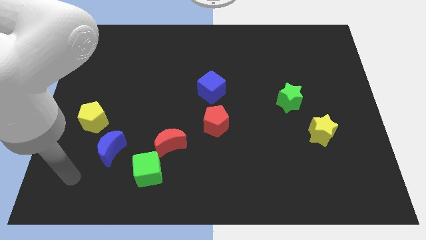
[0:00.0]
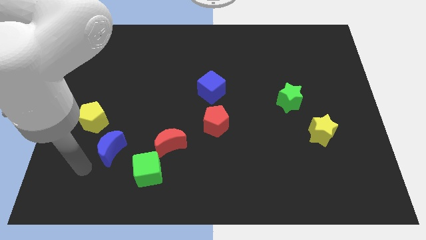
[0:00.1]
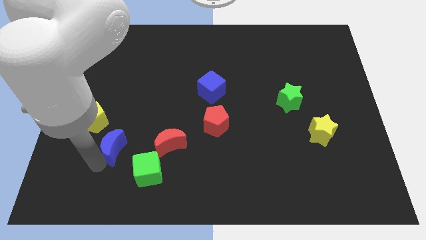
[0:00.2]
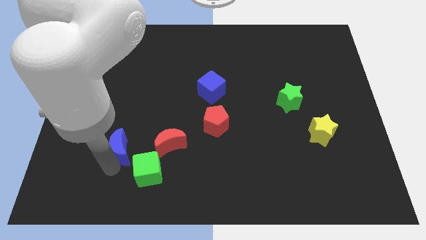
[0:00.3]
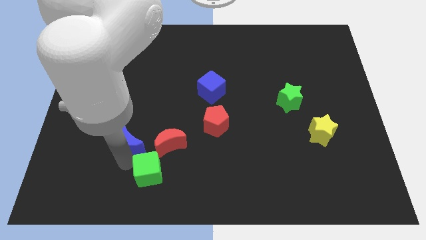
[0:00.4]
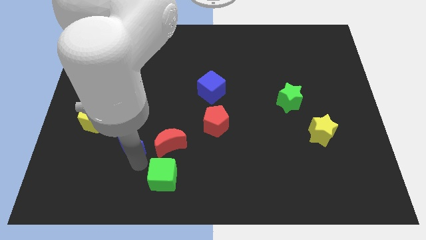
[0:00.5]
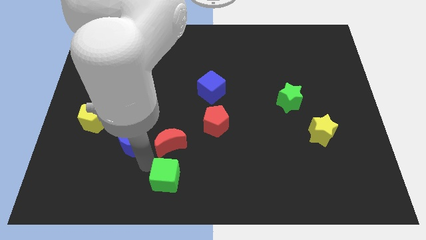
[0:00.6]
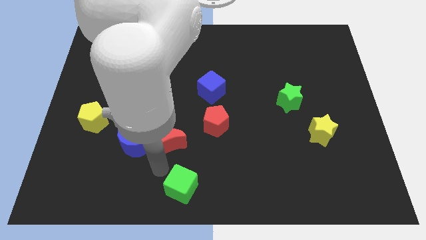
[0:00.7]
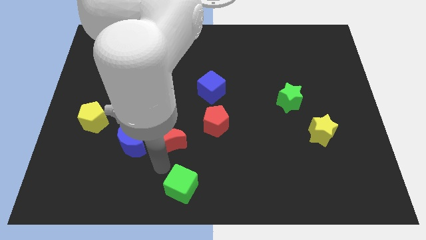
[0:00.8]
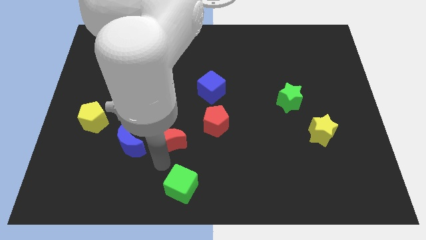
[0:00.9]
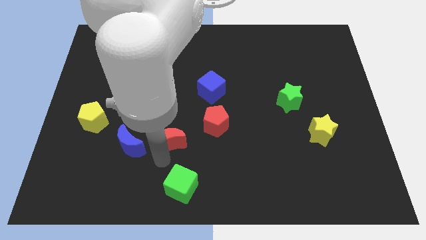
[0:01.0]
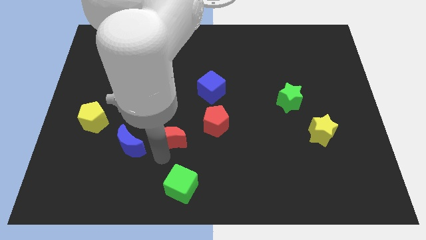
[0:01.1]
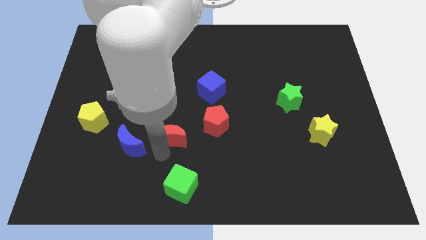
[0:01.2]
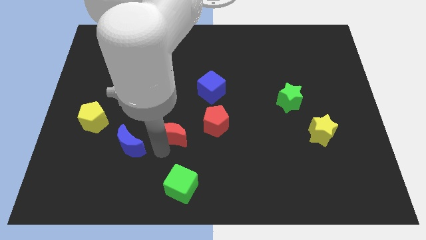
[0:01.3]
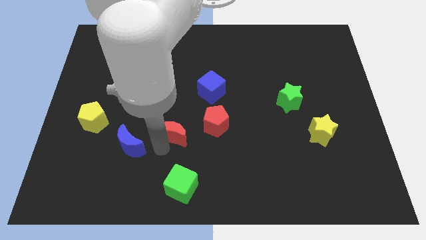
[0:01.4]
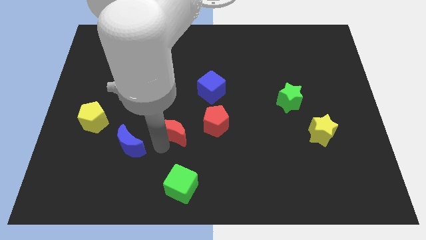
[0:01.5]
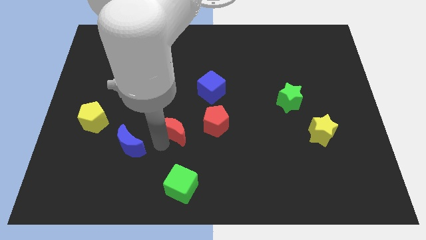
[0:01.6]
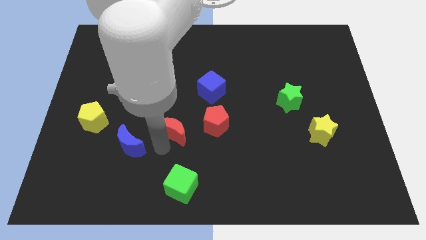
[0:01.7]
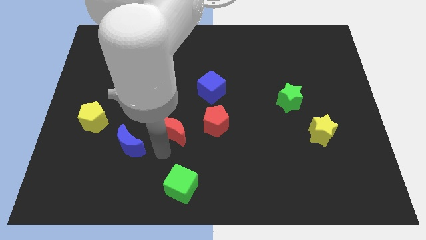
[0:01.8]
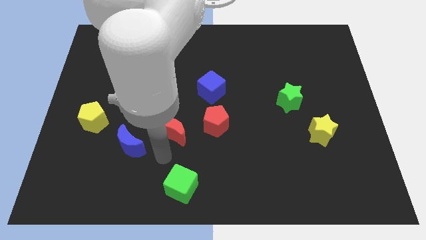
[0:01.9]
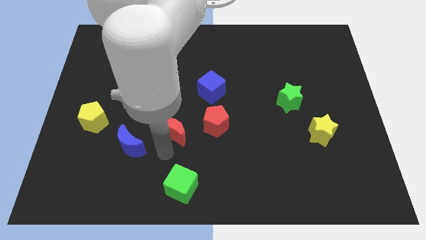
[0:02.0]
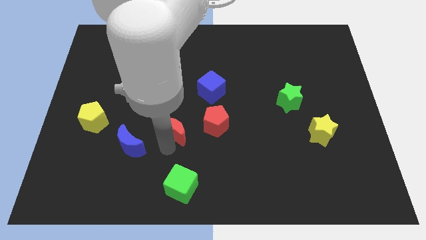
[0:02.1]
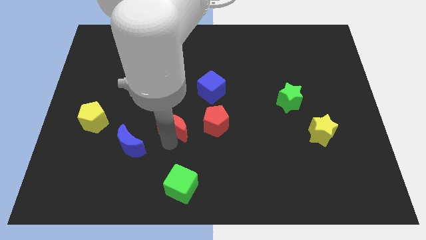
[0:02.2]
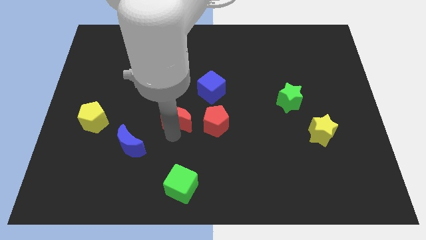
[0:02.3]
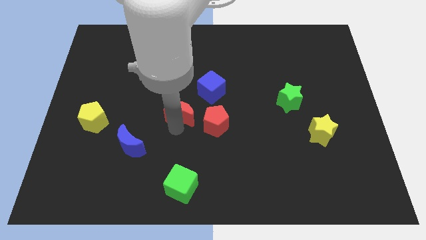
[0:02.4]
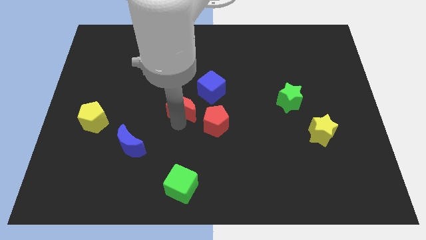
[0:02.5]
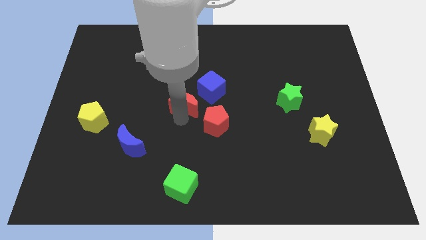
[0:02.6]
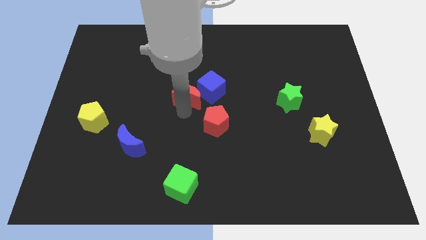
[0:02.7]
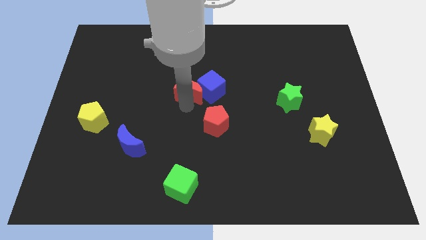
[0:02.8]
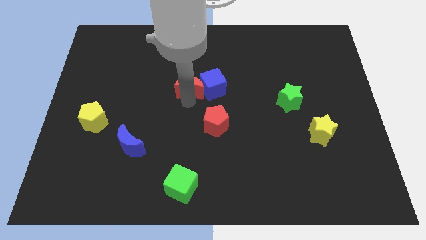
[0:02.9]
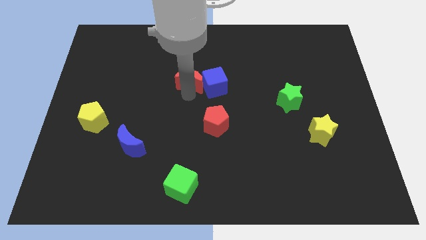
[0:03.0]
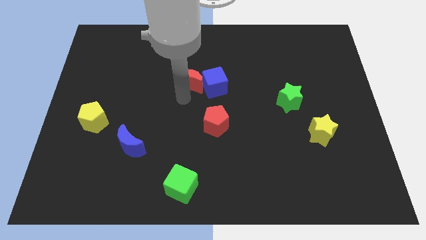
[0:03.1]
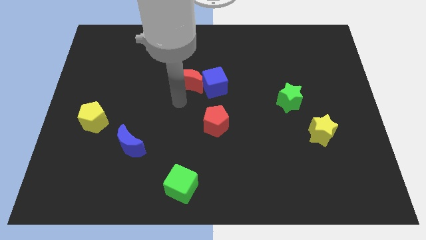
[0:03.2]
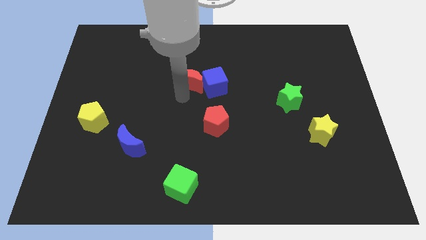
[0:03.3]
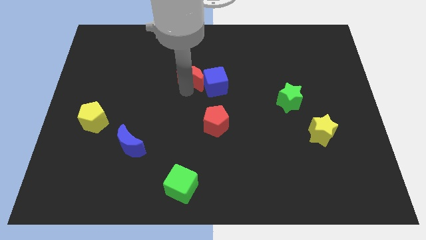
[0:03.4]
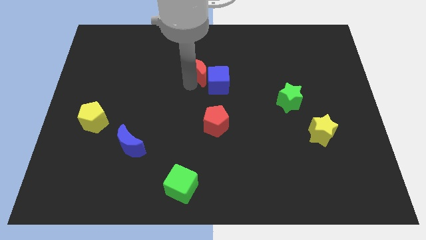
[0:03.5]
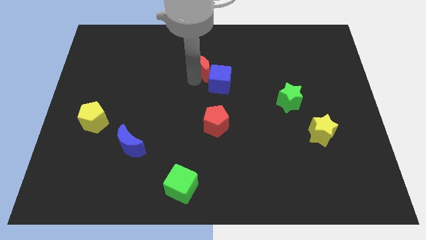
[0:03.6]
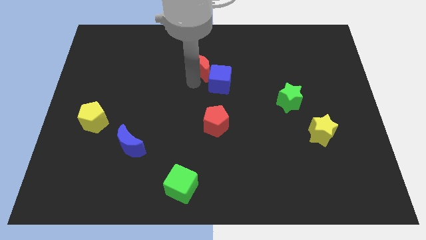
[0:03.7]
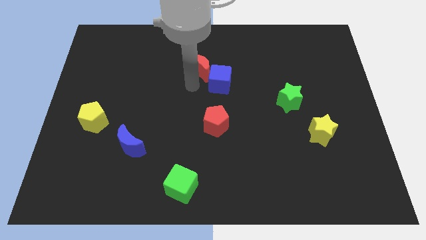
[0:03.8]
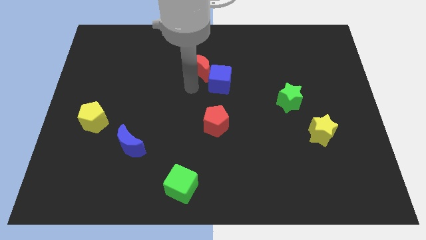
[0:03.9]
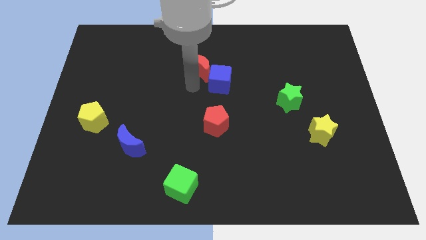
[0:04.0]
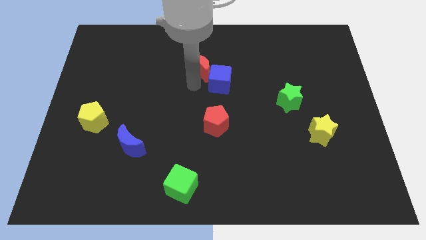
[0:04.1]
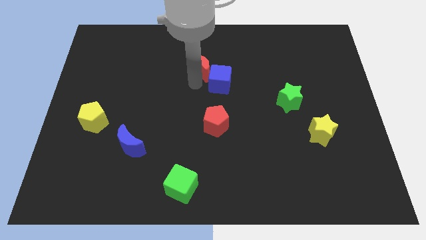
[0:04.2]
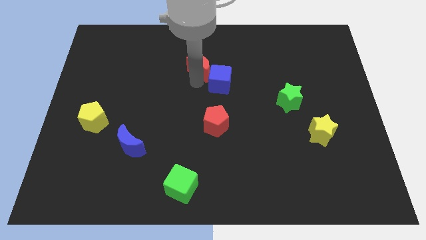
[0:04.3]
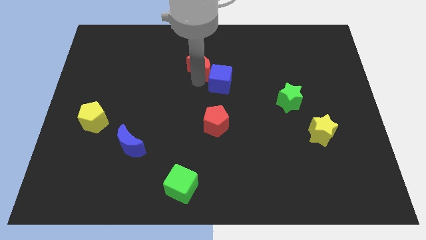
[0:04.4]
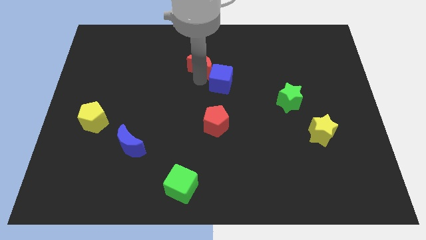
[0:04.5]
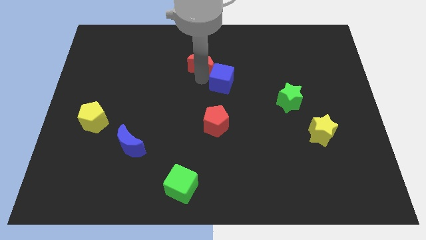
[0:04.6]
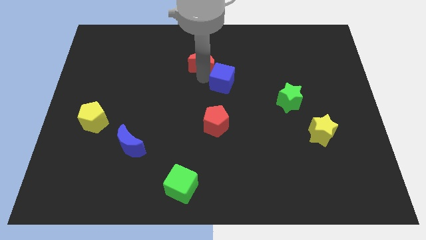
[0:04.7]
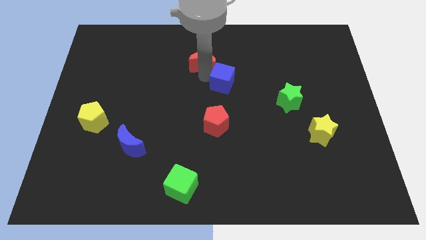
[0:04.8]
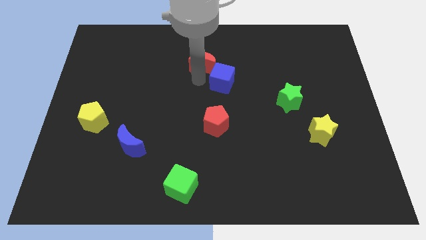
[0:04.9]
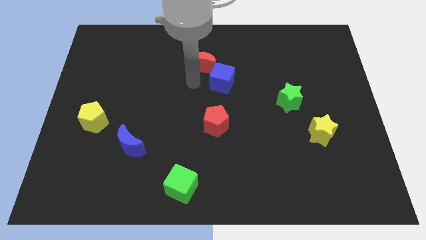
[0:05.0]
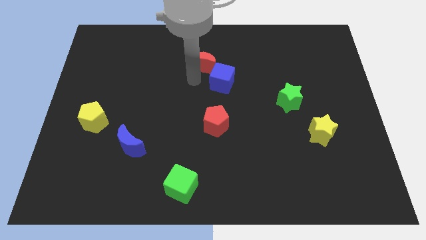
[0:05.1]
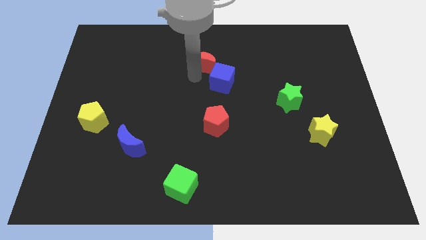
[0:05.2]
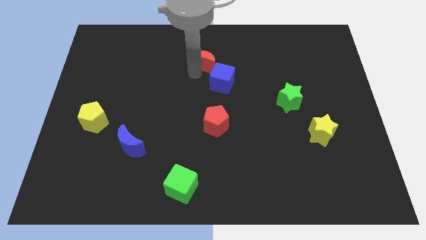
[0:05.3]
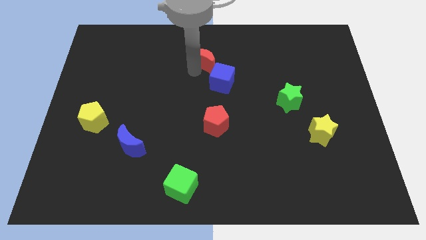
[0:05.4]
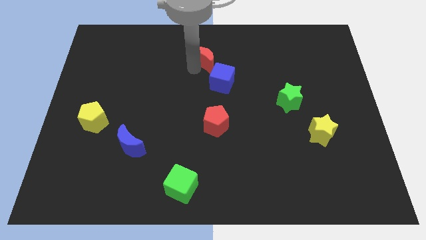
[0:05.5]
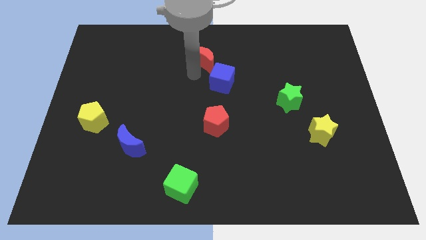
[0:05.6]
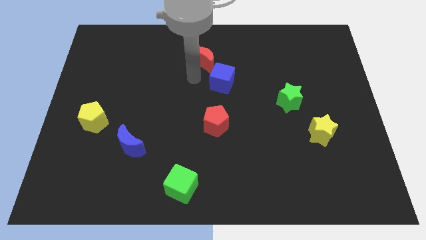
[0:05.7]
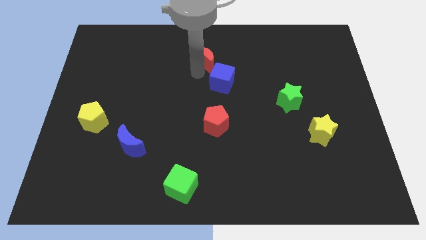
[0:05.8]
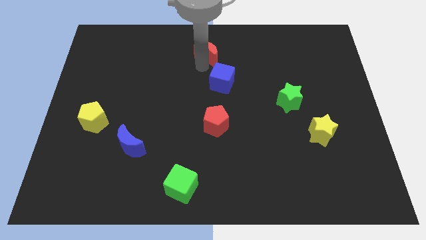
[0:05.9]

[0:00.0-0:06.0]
move the red moon to the top side
